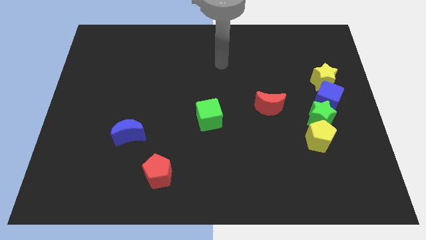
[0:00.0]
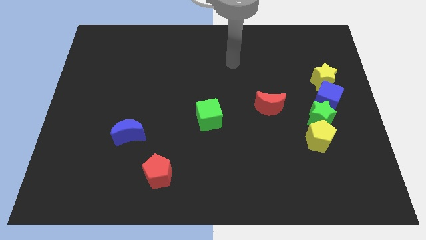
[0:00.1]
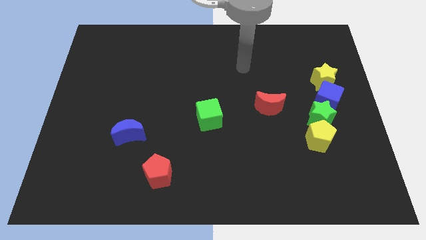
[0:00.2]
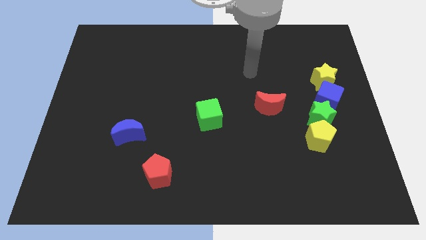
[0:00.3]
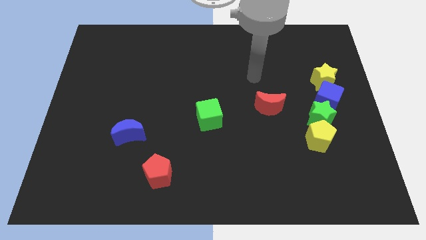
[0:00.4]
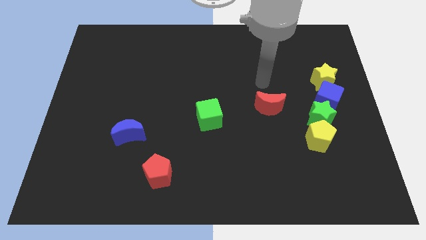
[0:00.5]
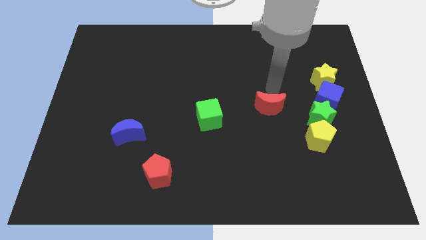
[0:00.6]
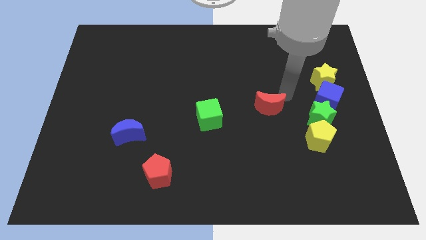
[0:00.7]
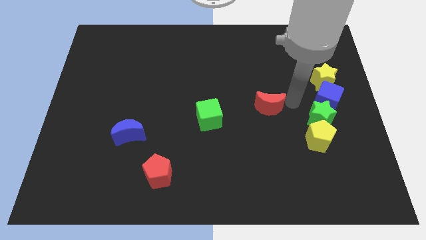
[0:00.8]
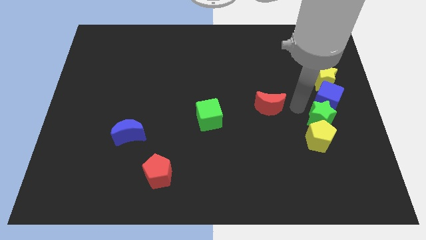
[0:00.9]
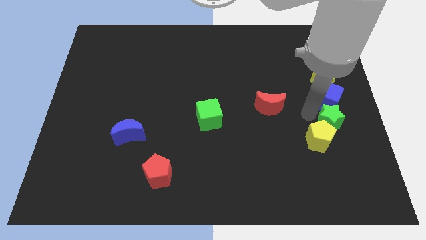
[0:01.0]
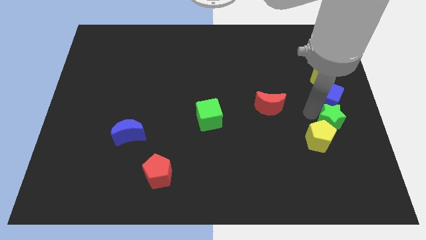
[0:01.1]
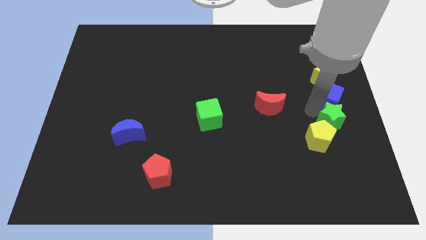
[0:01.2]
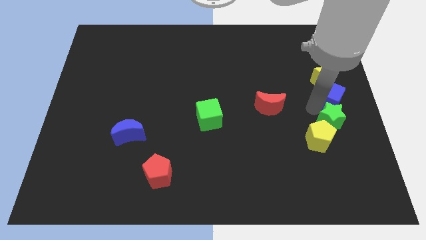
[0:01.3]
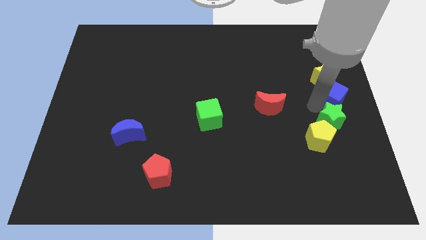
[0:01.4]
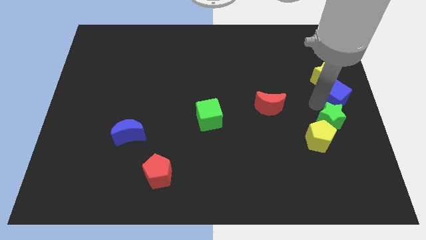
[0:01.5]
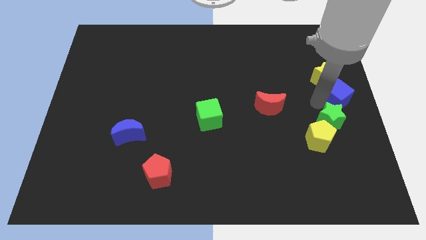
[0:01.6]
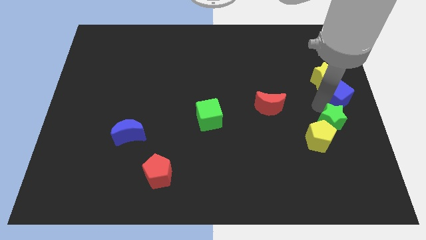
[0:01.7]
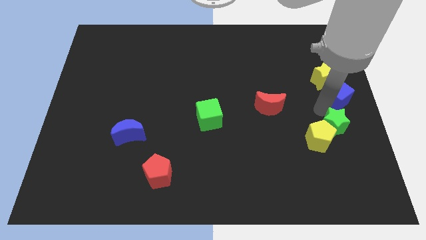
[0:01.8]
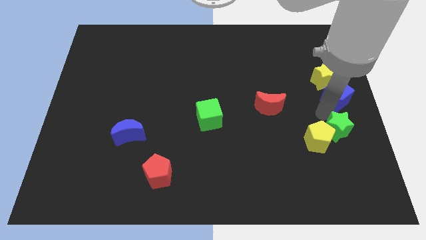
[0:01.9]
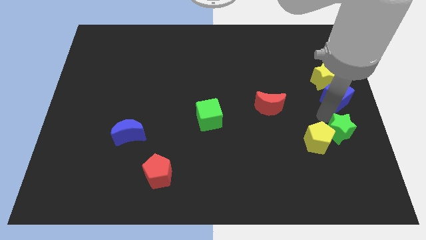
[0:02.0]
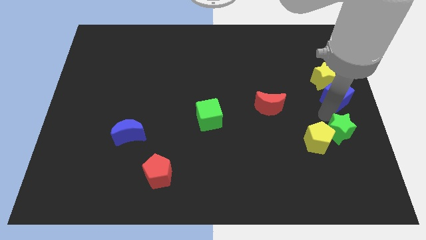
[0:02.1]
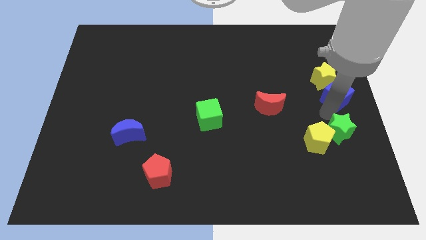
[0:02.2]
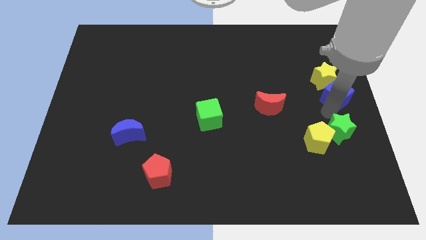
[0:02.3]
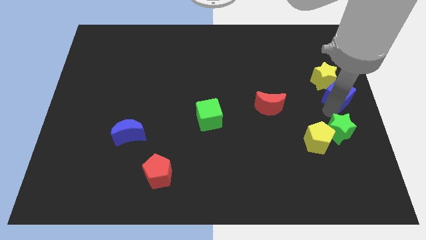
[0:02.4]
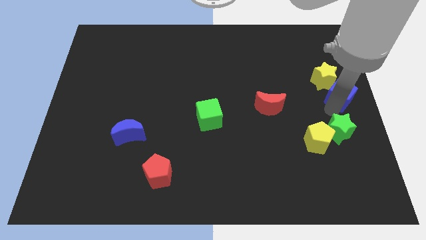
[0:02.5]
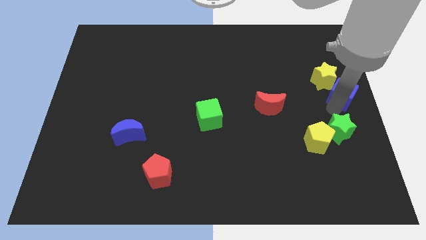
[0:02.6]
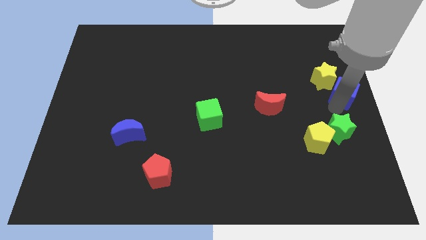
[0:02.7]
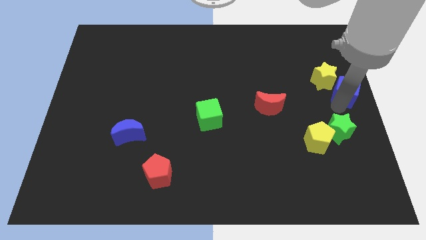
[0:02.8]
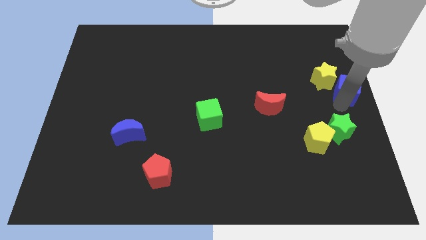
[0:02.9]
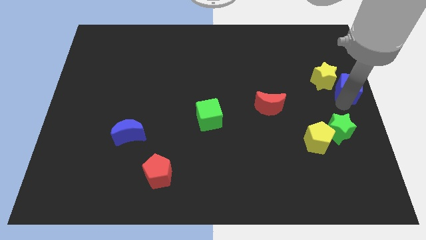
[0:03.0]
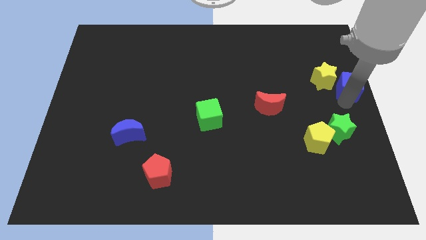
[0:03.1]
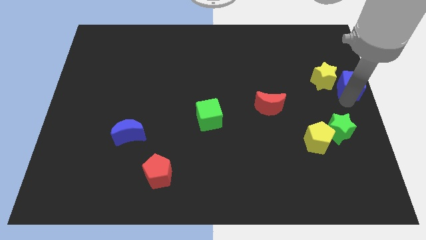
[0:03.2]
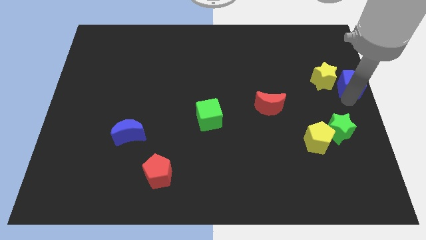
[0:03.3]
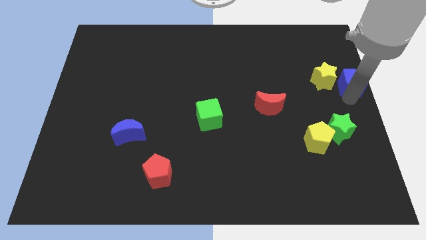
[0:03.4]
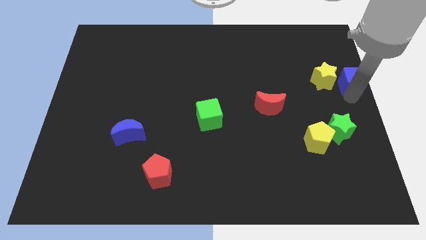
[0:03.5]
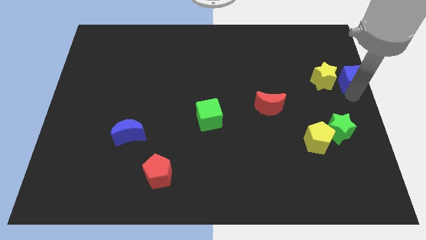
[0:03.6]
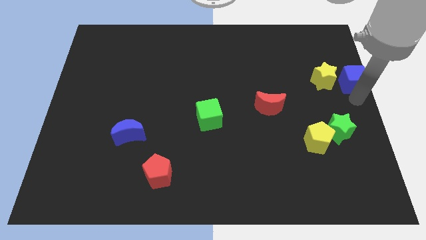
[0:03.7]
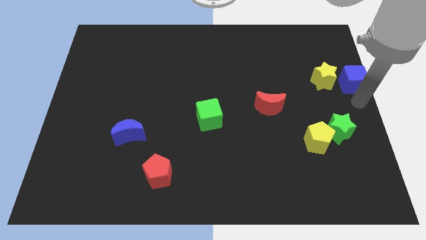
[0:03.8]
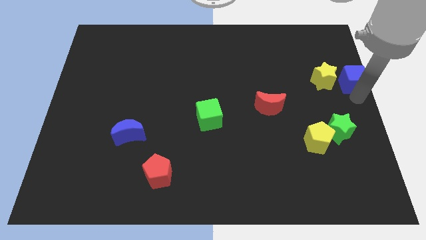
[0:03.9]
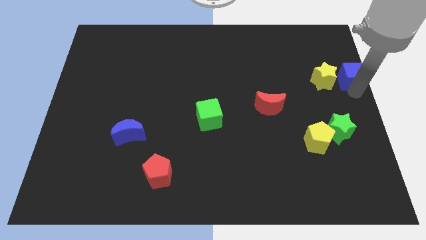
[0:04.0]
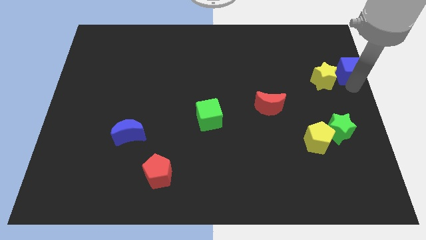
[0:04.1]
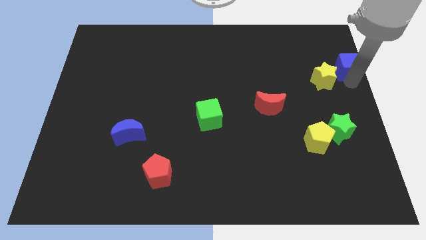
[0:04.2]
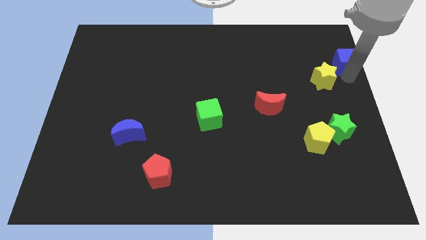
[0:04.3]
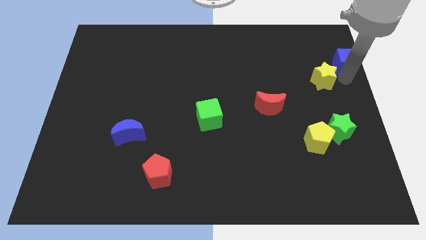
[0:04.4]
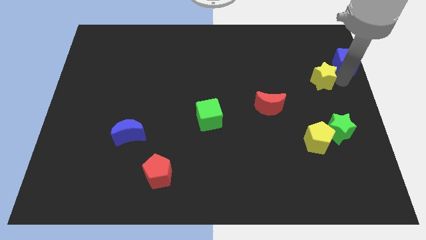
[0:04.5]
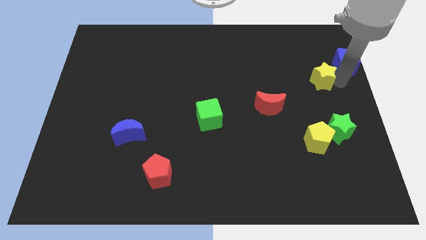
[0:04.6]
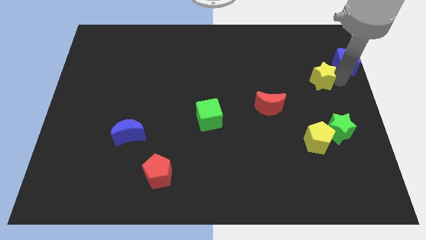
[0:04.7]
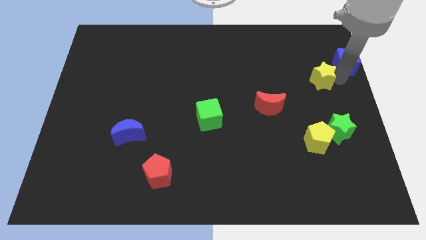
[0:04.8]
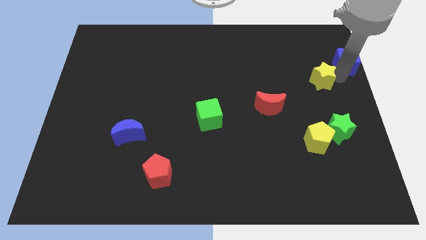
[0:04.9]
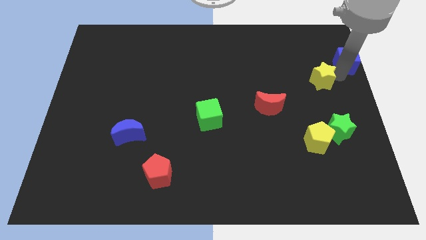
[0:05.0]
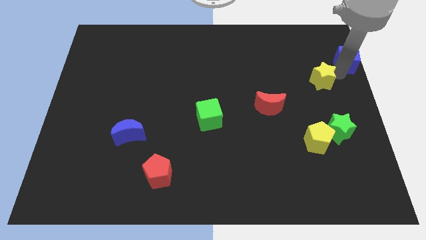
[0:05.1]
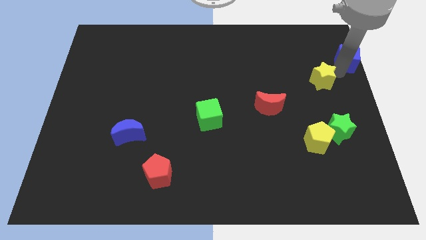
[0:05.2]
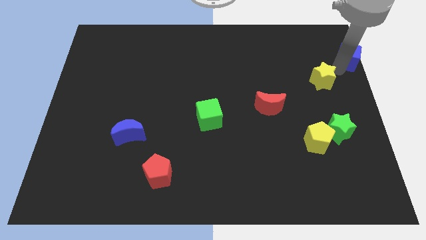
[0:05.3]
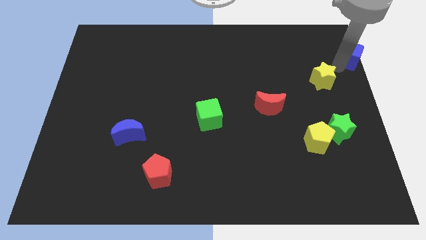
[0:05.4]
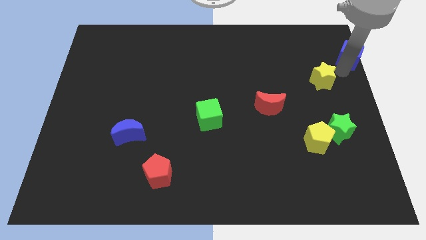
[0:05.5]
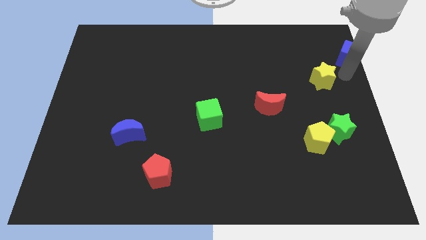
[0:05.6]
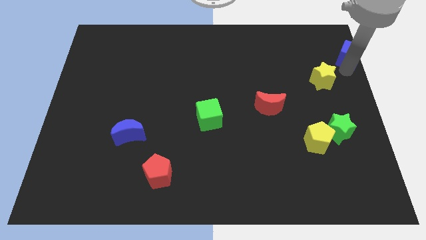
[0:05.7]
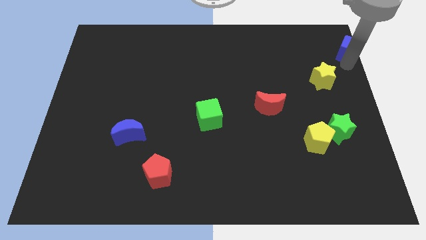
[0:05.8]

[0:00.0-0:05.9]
push the blue cube to the top right of the board

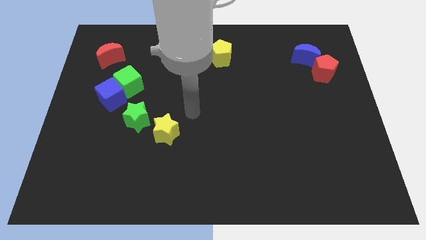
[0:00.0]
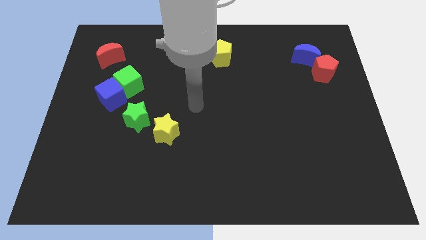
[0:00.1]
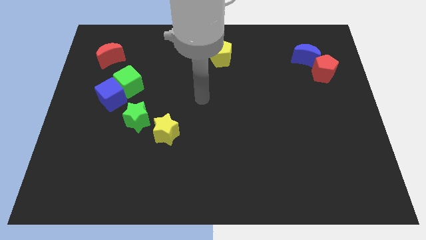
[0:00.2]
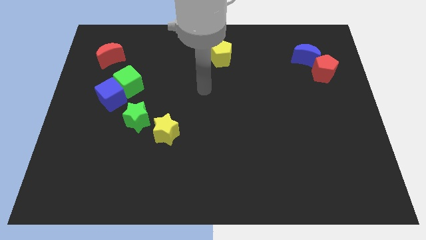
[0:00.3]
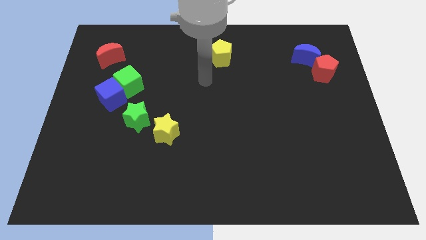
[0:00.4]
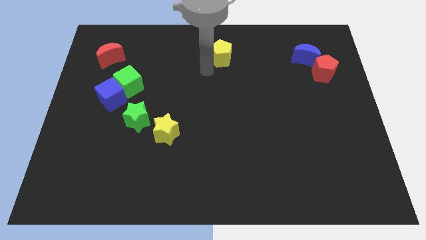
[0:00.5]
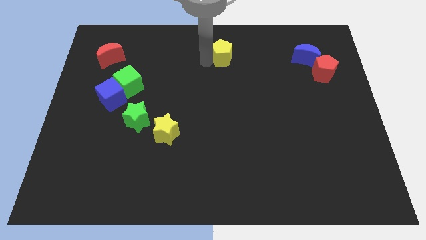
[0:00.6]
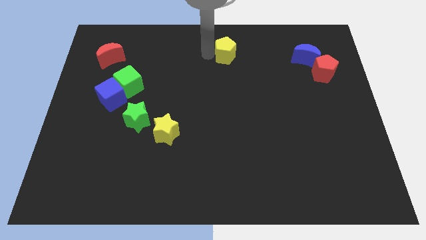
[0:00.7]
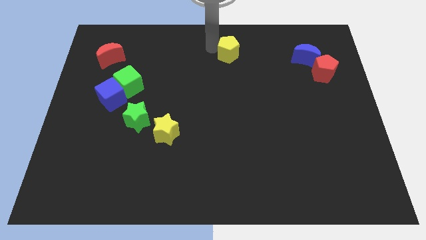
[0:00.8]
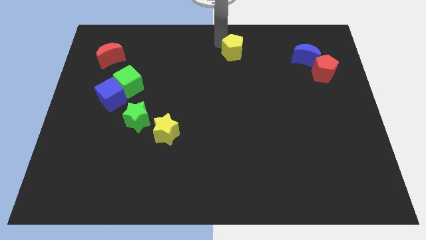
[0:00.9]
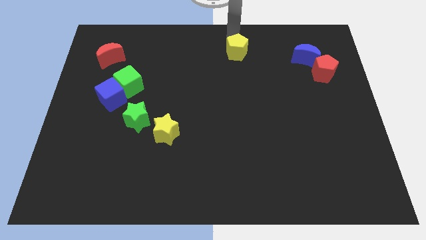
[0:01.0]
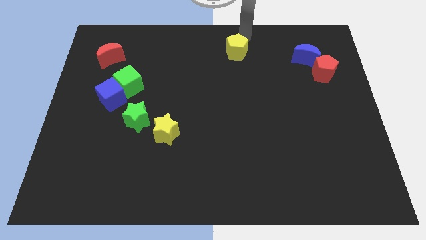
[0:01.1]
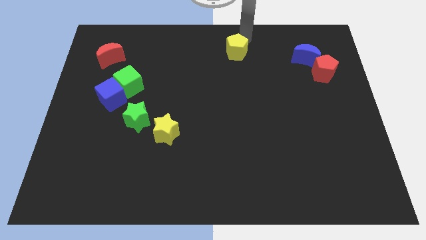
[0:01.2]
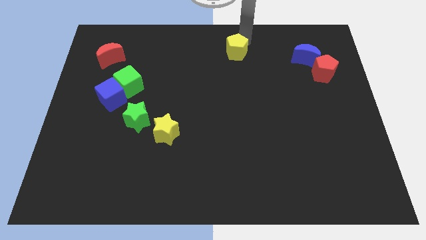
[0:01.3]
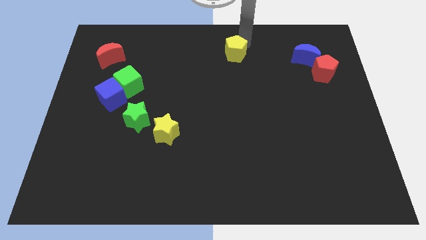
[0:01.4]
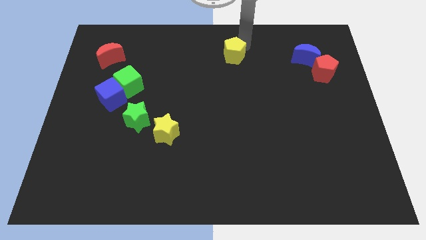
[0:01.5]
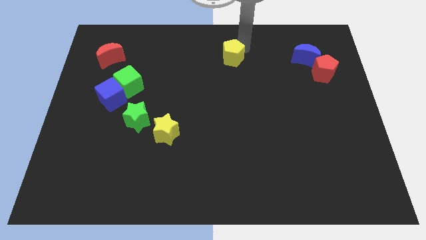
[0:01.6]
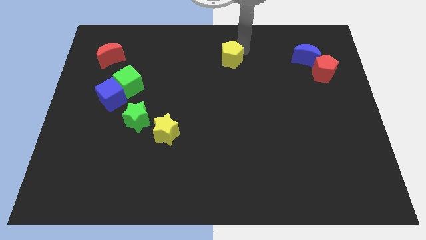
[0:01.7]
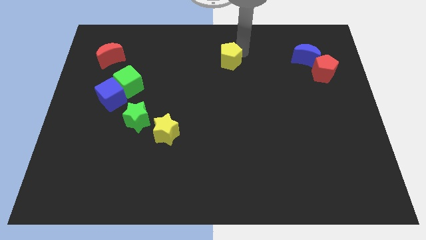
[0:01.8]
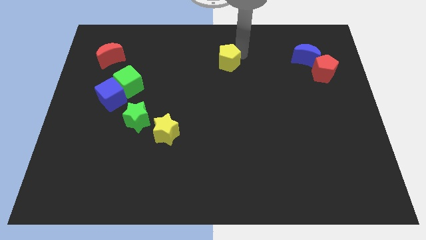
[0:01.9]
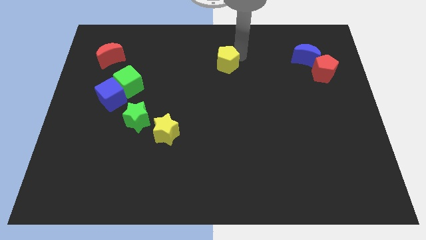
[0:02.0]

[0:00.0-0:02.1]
push the yellow pentagon to the middle of the board
